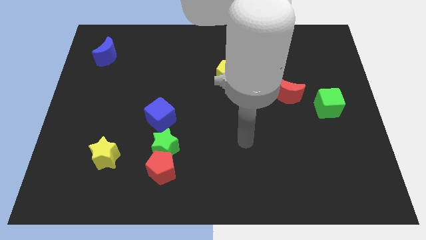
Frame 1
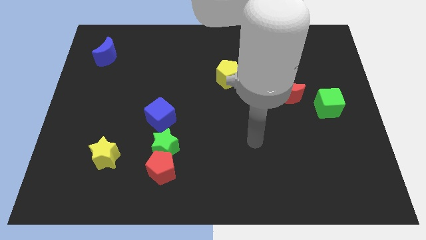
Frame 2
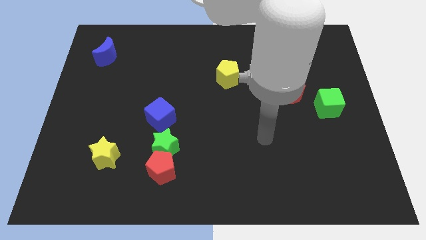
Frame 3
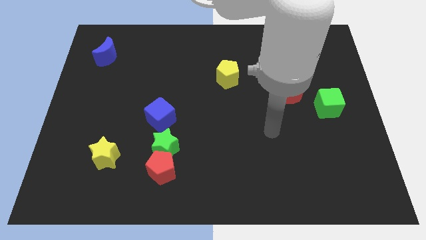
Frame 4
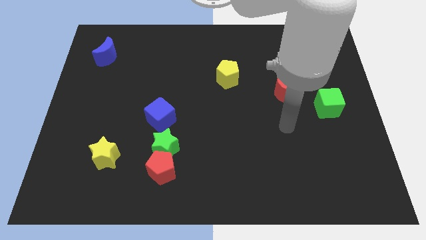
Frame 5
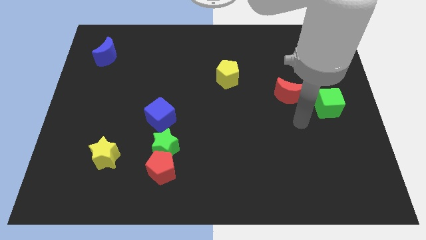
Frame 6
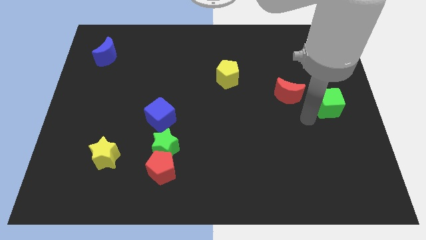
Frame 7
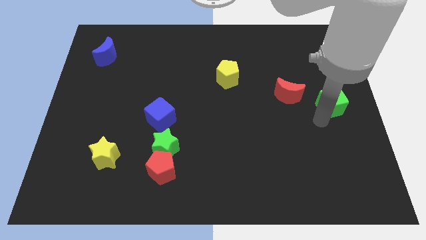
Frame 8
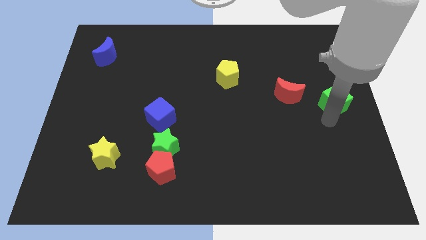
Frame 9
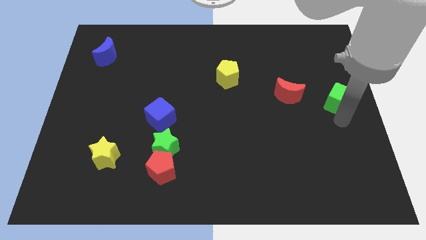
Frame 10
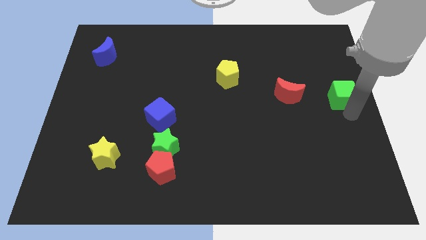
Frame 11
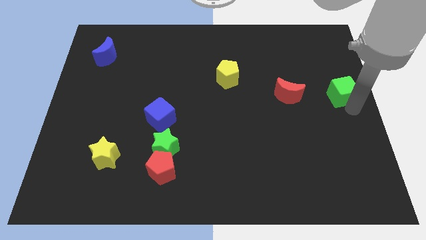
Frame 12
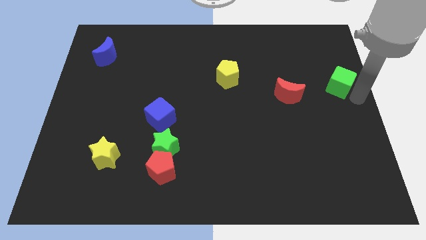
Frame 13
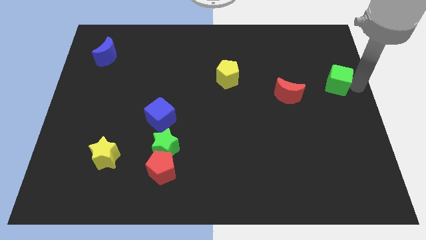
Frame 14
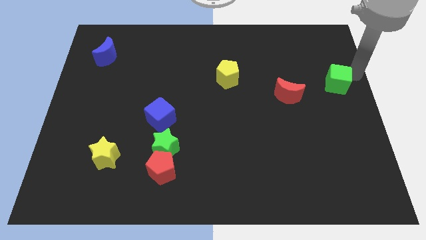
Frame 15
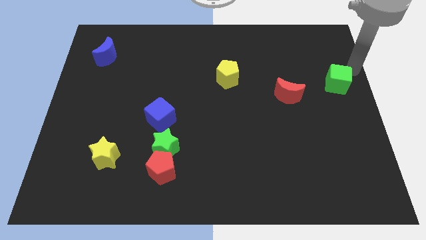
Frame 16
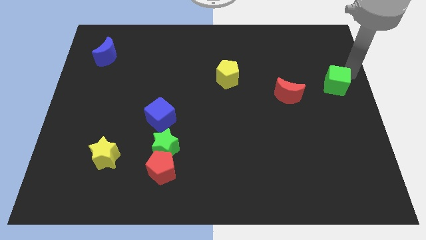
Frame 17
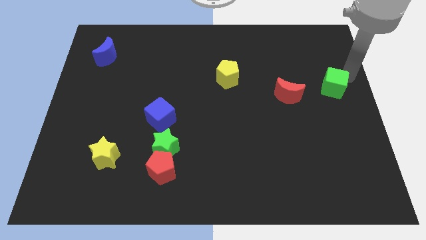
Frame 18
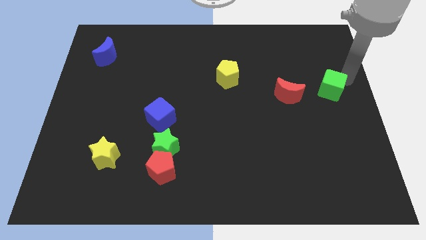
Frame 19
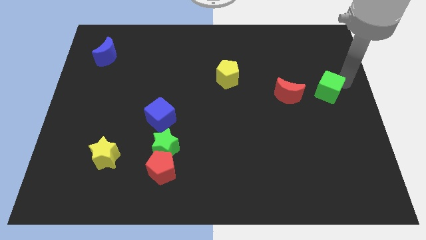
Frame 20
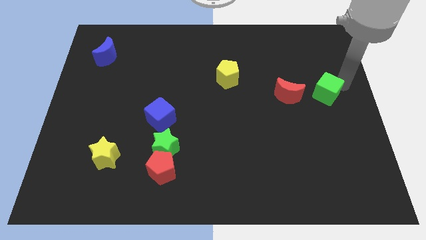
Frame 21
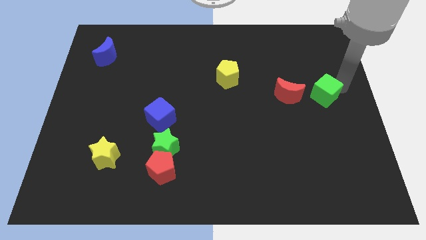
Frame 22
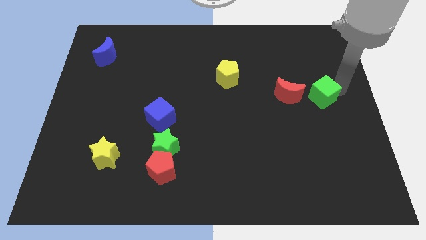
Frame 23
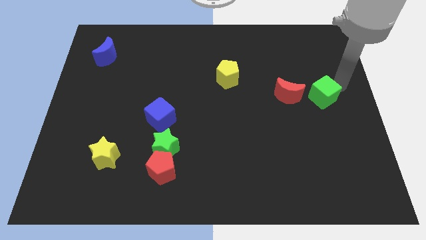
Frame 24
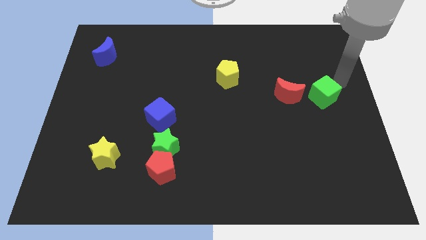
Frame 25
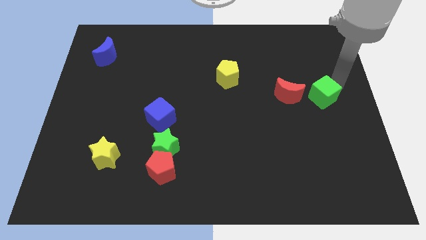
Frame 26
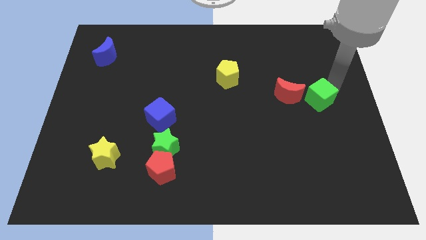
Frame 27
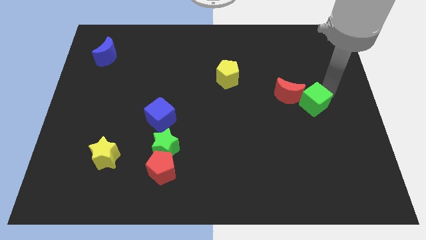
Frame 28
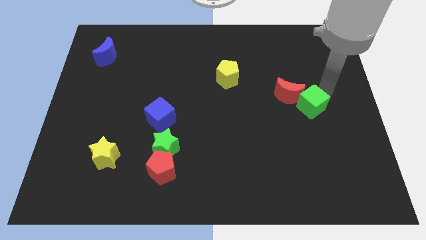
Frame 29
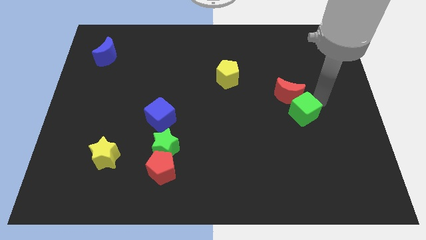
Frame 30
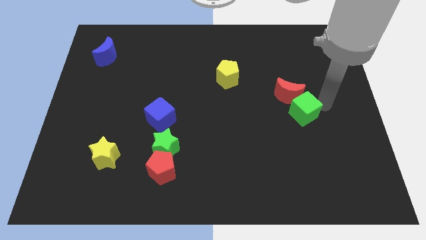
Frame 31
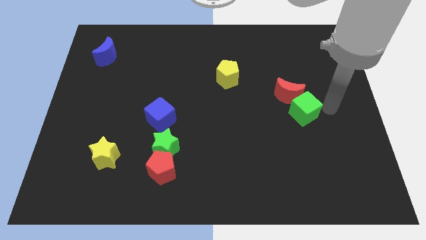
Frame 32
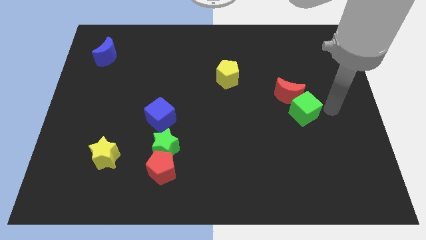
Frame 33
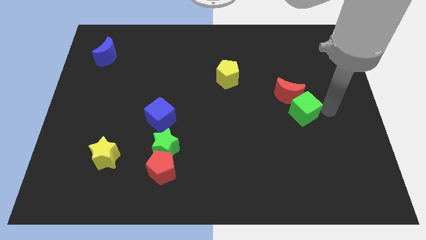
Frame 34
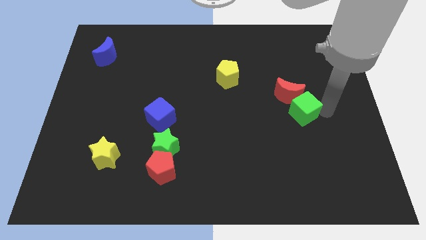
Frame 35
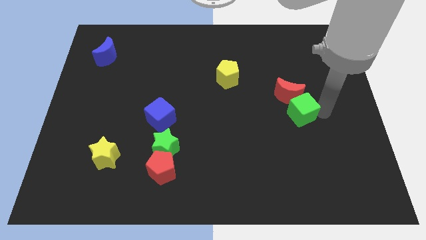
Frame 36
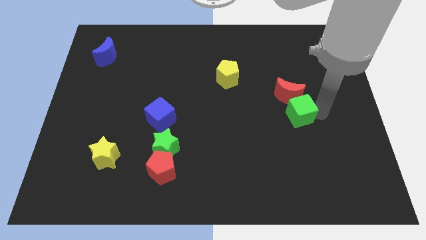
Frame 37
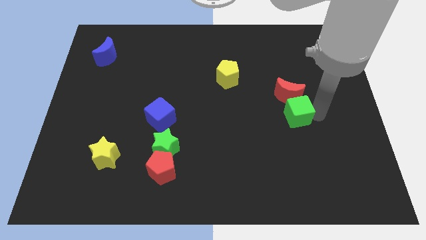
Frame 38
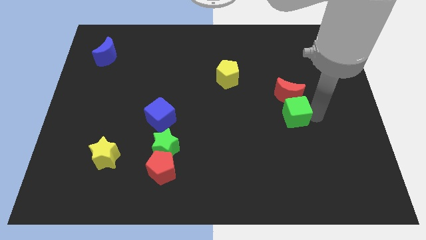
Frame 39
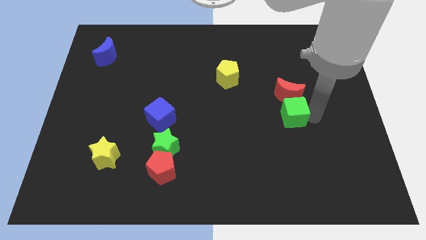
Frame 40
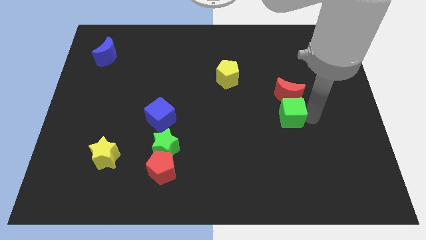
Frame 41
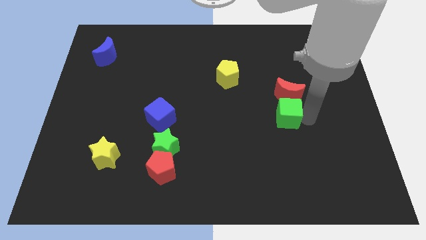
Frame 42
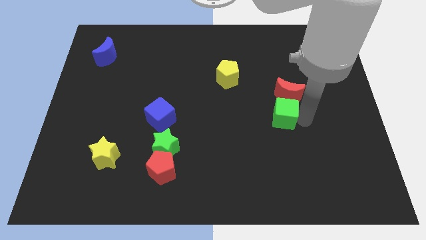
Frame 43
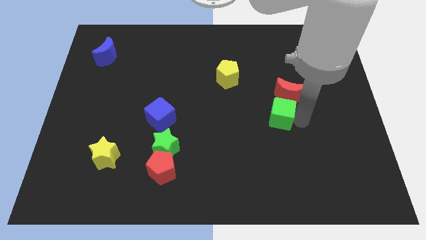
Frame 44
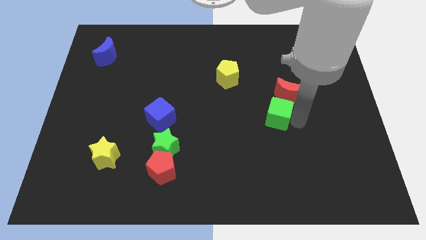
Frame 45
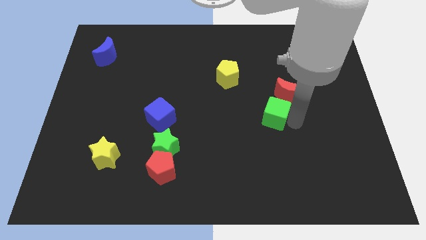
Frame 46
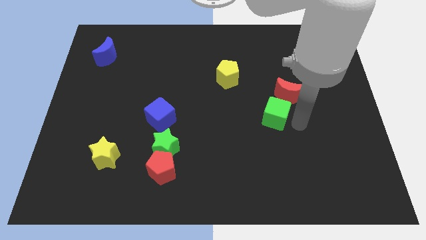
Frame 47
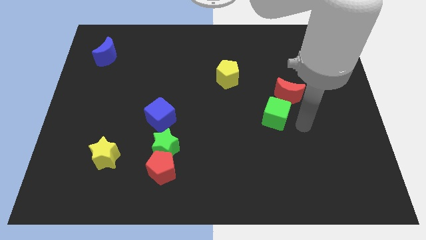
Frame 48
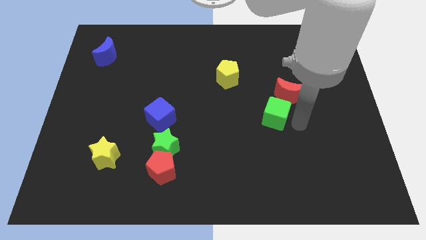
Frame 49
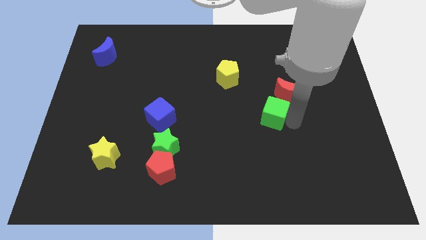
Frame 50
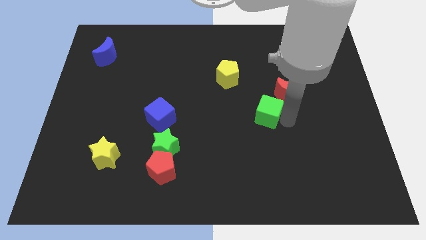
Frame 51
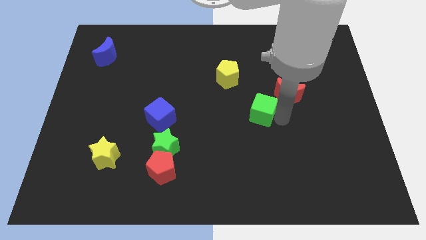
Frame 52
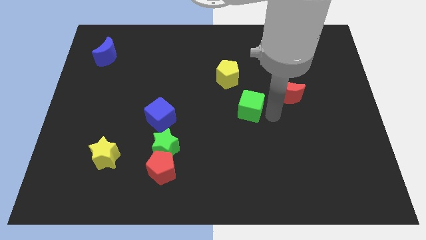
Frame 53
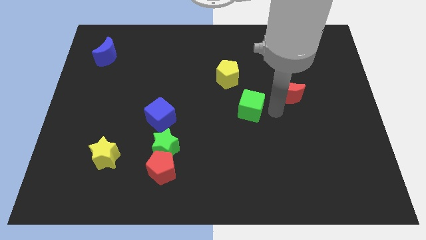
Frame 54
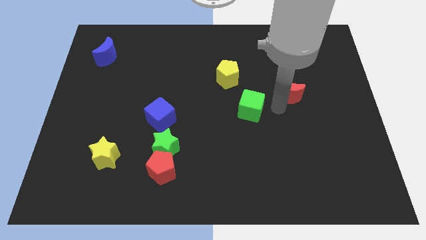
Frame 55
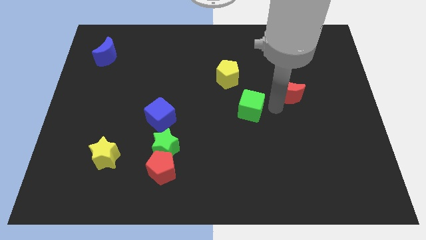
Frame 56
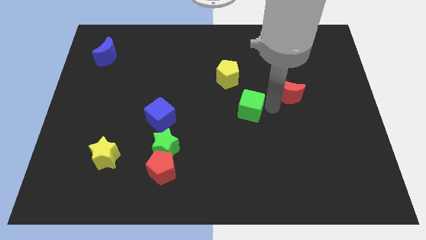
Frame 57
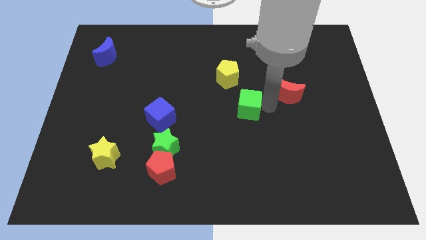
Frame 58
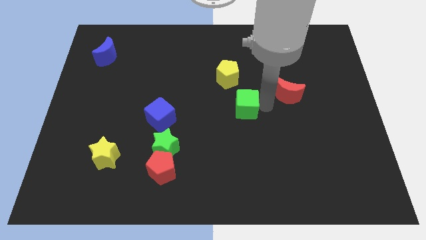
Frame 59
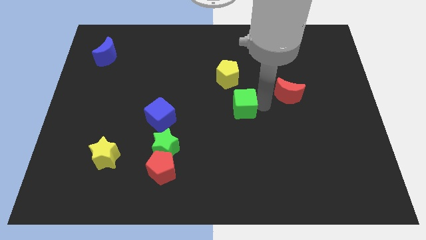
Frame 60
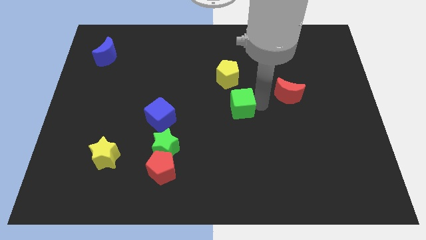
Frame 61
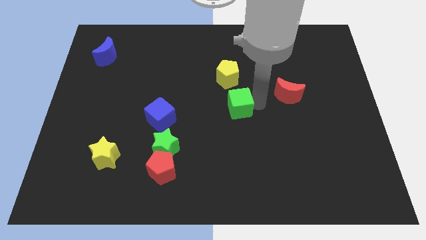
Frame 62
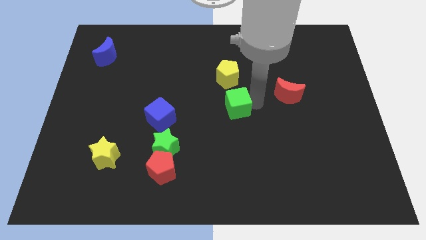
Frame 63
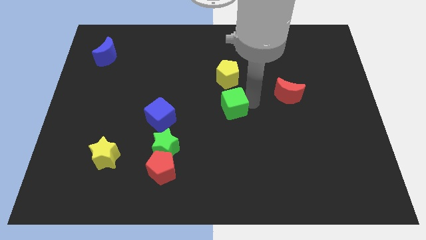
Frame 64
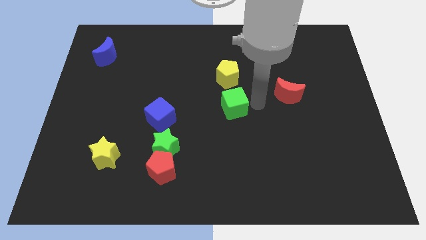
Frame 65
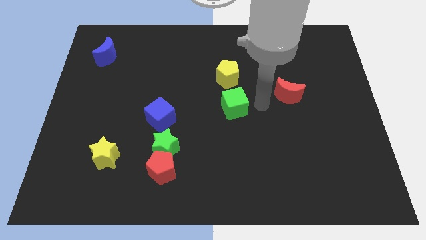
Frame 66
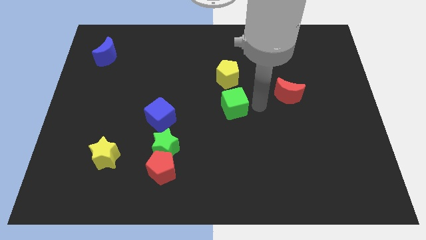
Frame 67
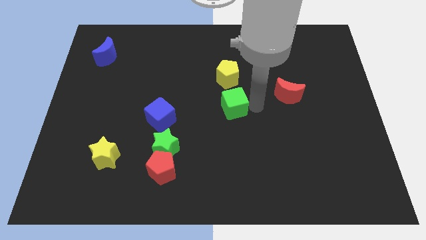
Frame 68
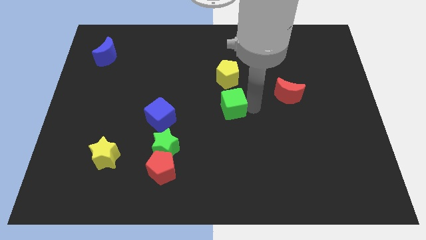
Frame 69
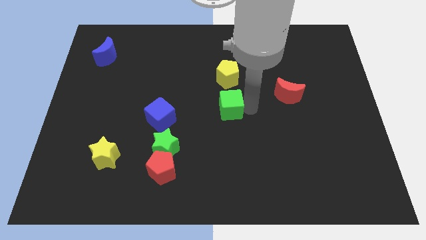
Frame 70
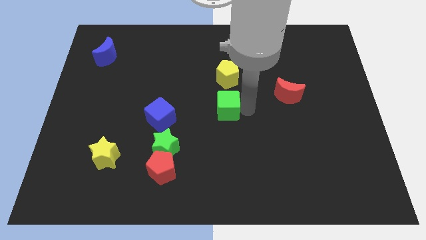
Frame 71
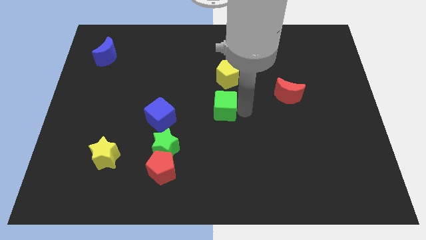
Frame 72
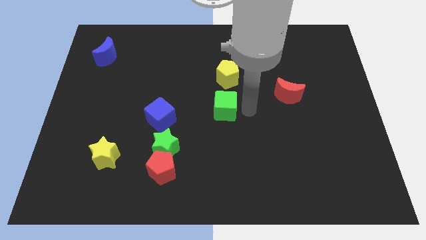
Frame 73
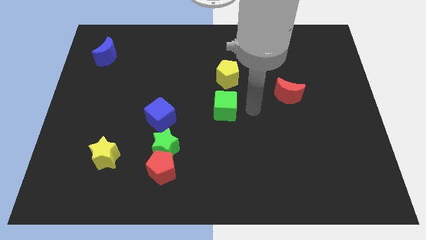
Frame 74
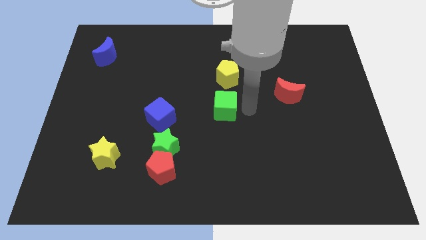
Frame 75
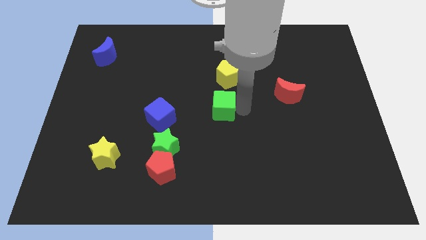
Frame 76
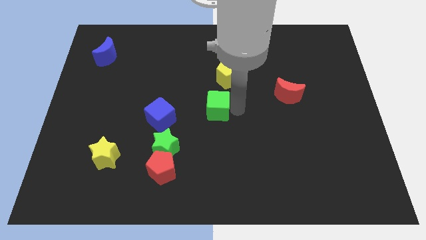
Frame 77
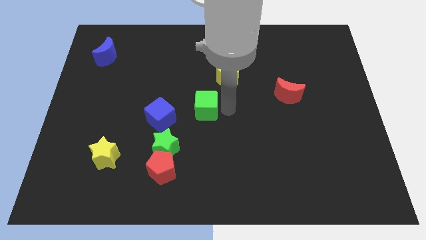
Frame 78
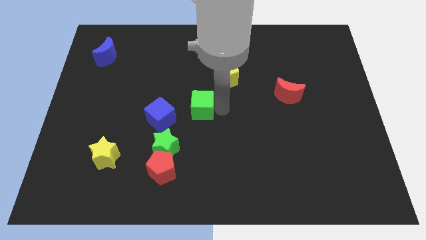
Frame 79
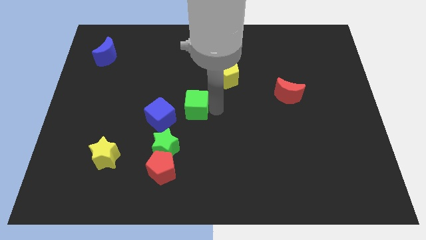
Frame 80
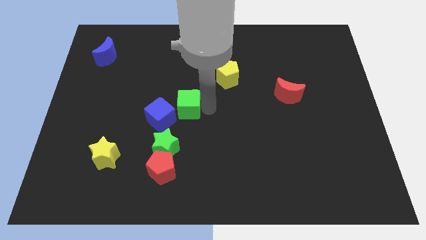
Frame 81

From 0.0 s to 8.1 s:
slide the green cube above the green star
